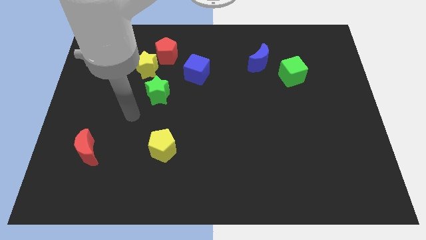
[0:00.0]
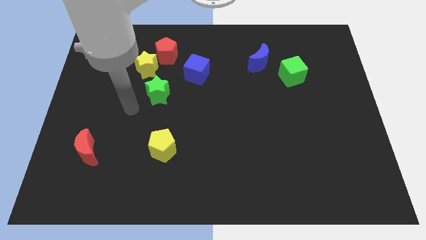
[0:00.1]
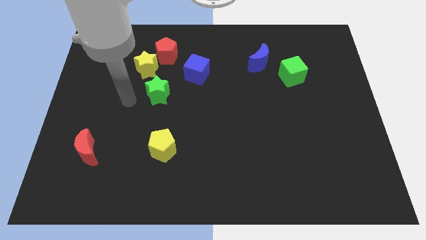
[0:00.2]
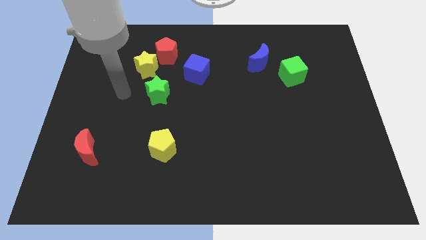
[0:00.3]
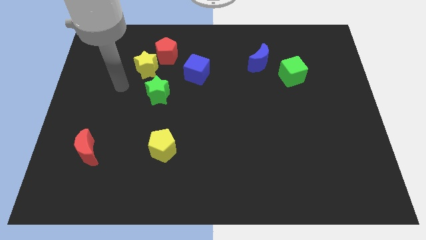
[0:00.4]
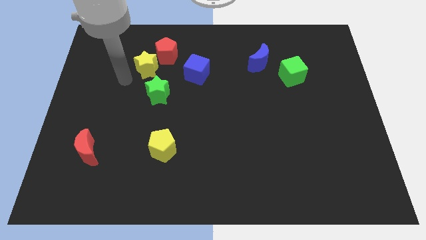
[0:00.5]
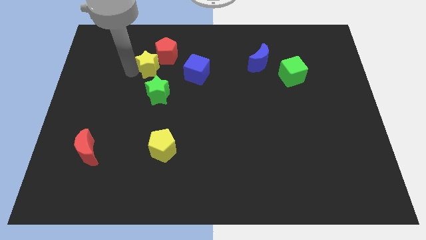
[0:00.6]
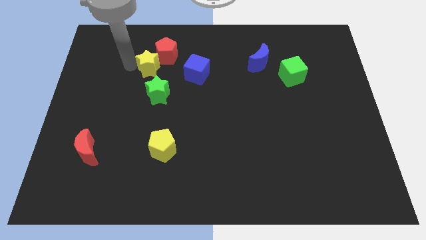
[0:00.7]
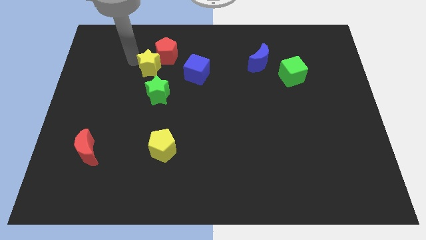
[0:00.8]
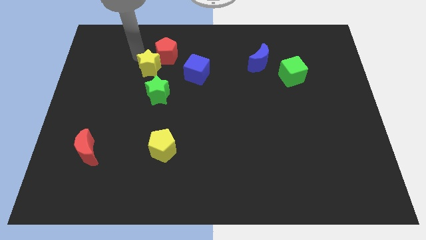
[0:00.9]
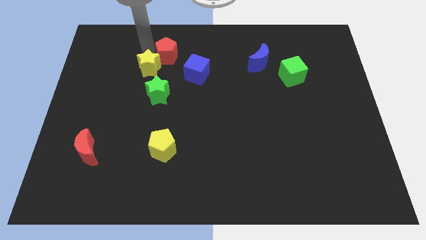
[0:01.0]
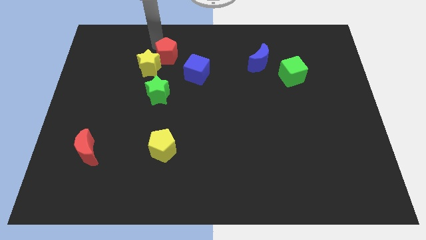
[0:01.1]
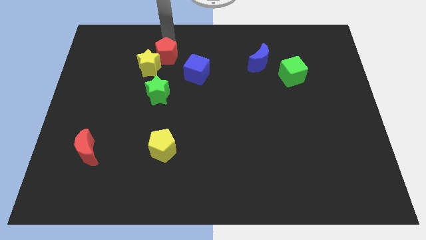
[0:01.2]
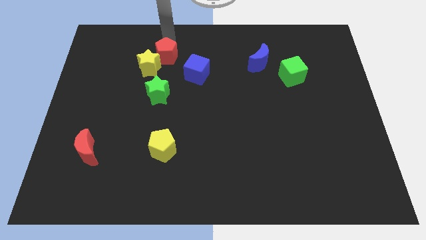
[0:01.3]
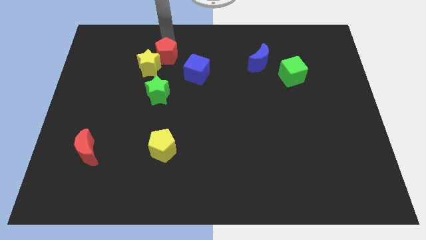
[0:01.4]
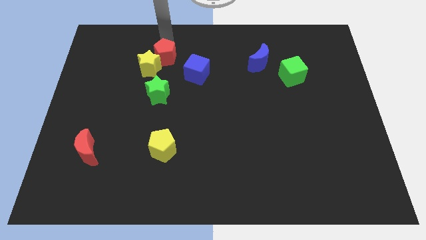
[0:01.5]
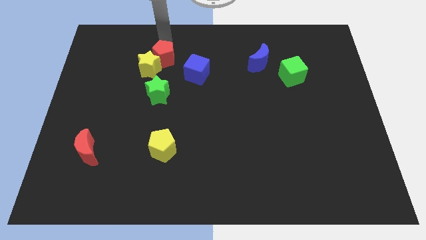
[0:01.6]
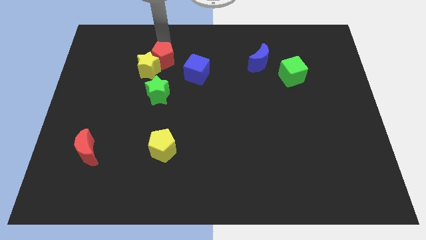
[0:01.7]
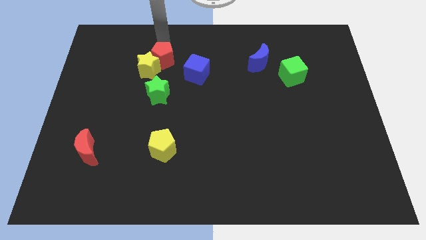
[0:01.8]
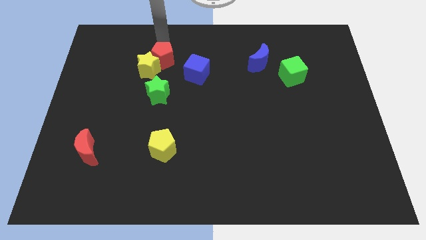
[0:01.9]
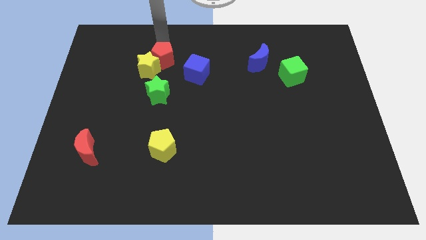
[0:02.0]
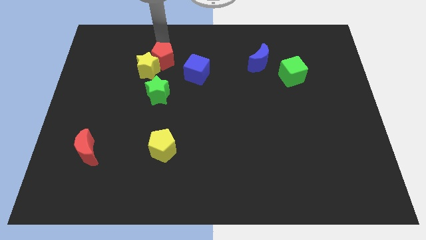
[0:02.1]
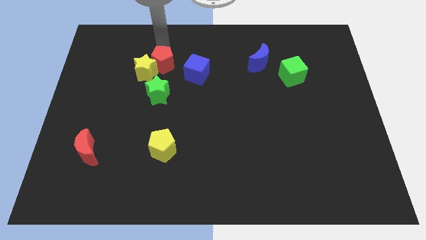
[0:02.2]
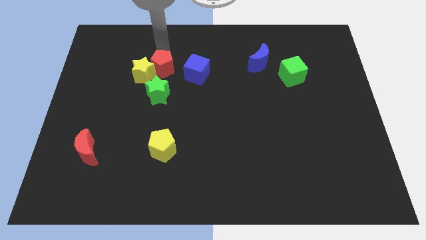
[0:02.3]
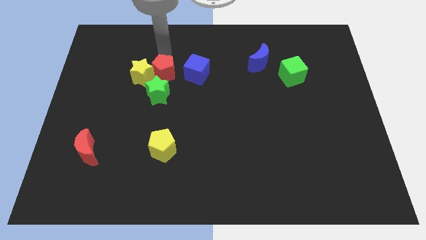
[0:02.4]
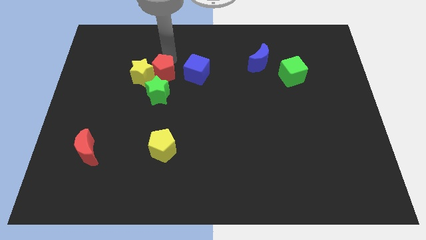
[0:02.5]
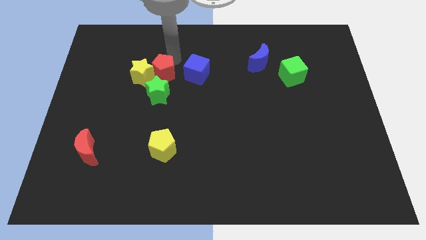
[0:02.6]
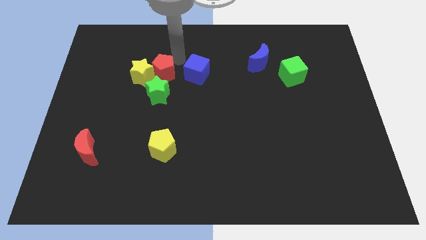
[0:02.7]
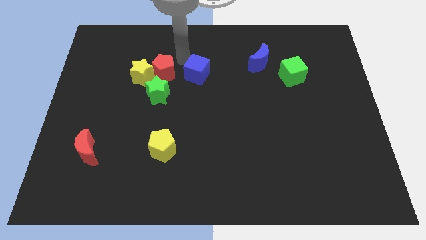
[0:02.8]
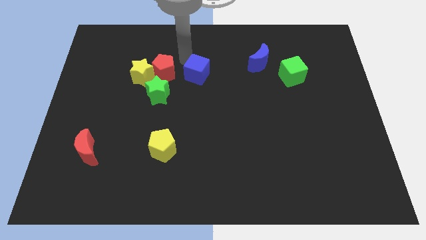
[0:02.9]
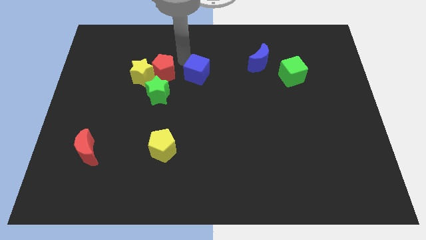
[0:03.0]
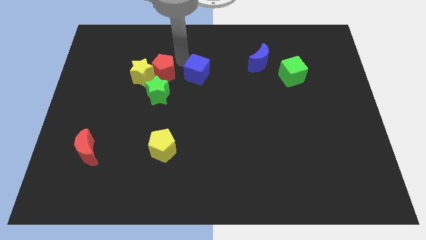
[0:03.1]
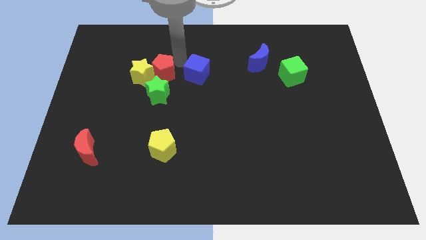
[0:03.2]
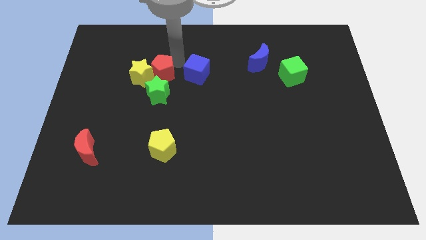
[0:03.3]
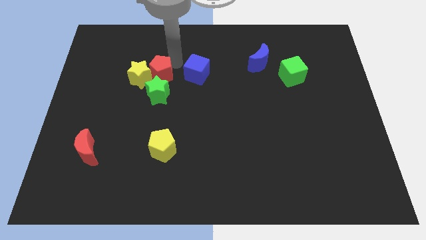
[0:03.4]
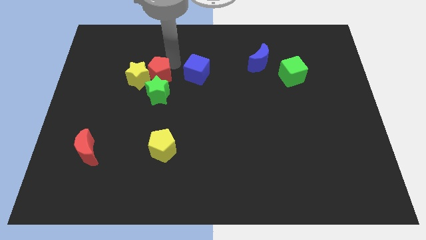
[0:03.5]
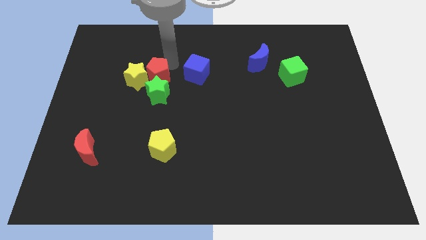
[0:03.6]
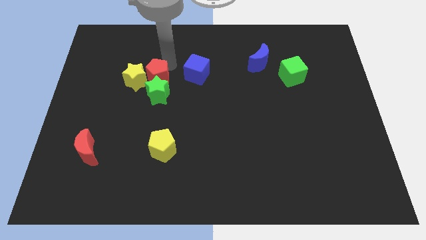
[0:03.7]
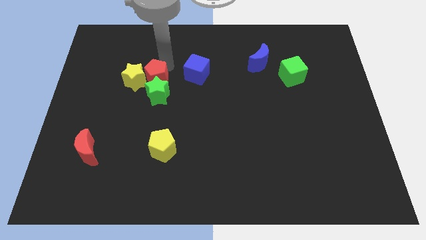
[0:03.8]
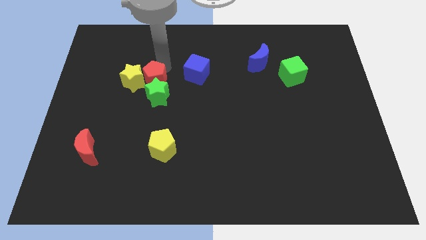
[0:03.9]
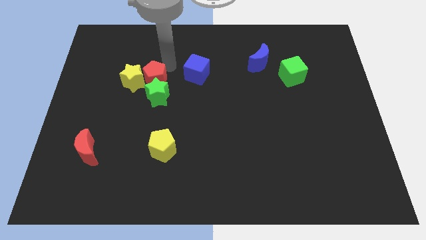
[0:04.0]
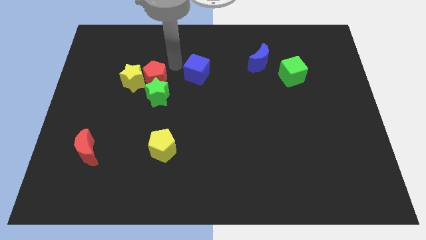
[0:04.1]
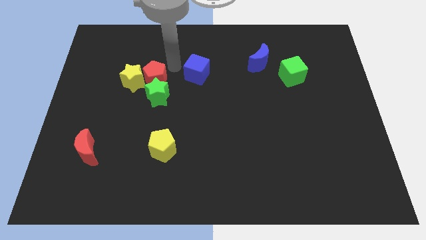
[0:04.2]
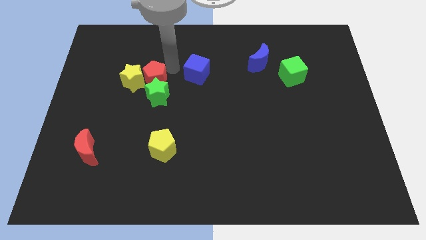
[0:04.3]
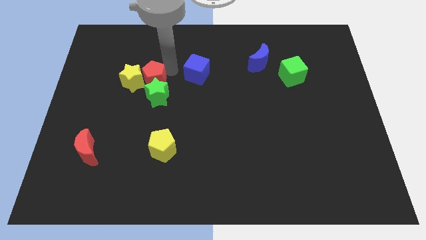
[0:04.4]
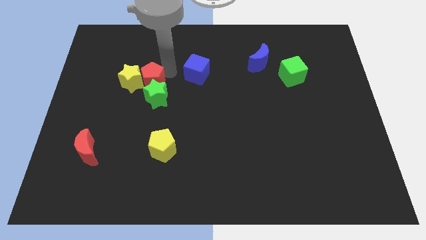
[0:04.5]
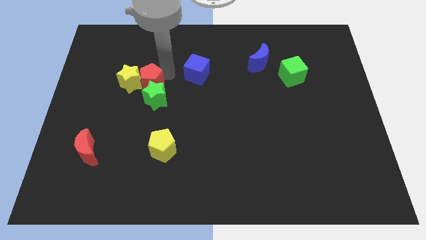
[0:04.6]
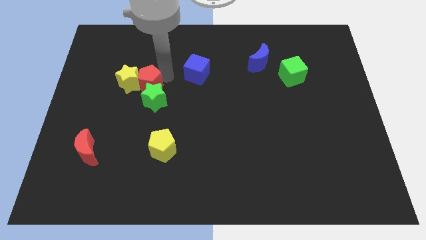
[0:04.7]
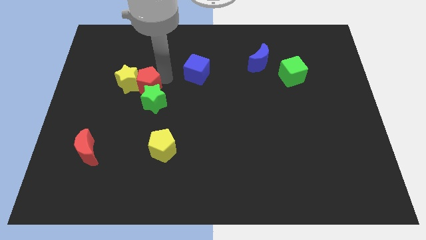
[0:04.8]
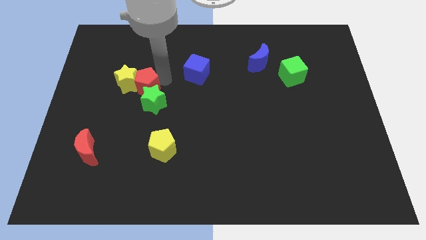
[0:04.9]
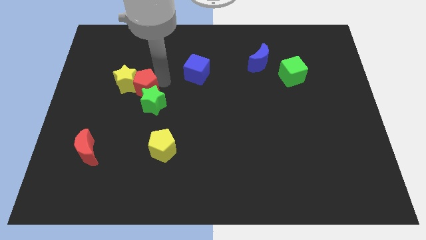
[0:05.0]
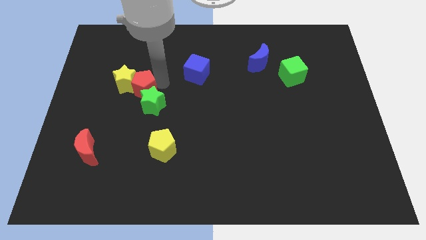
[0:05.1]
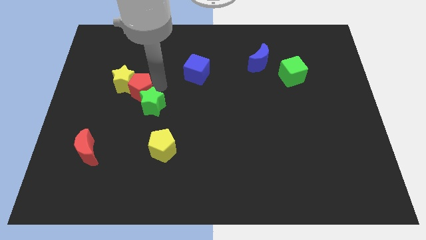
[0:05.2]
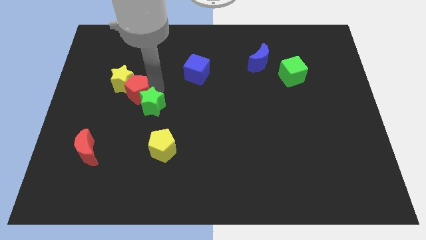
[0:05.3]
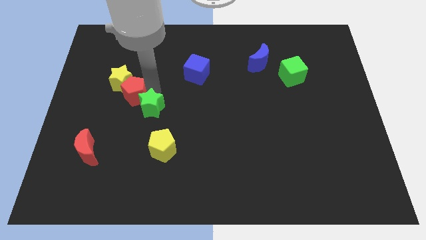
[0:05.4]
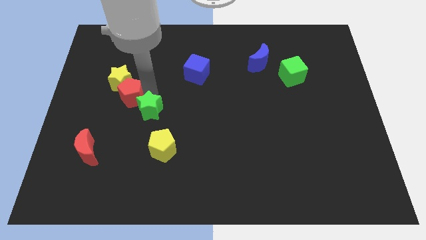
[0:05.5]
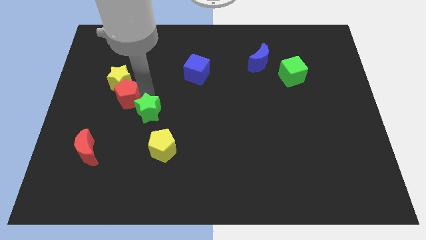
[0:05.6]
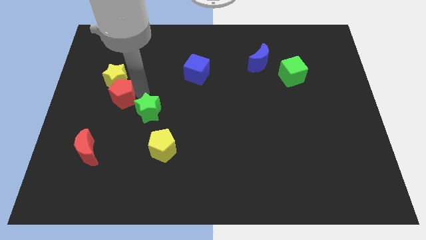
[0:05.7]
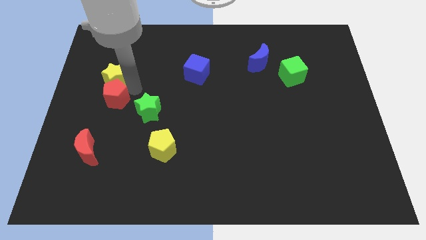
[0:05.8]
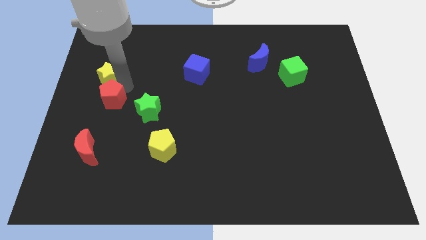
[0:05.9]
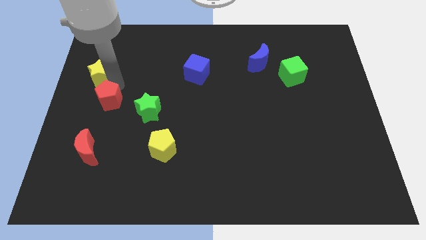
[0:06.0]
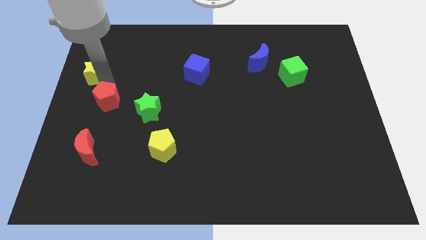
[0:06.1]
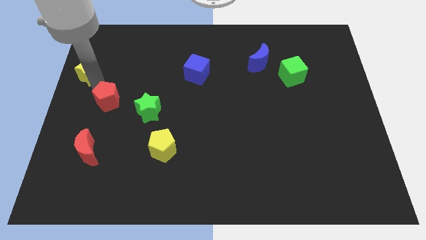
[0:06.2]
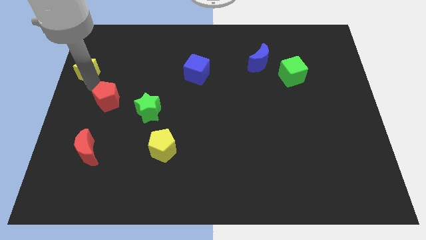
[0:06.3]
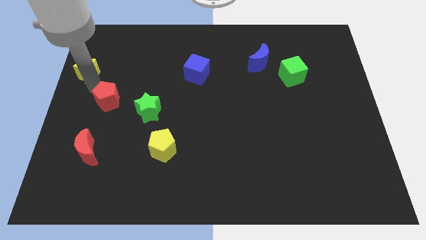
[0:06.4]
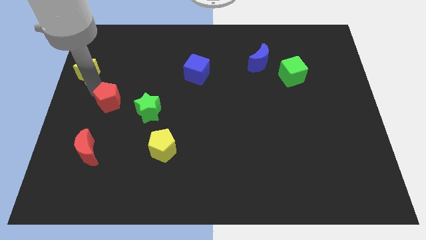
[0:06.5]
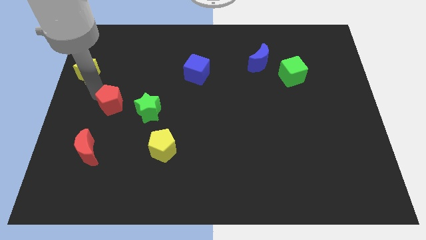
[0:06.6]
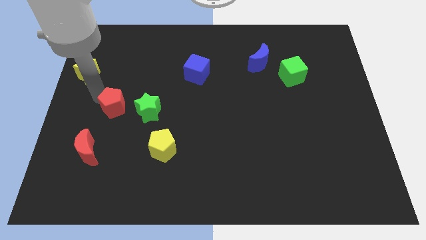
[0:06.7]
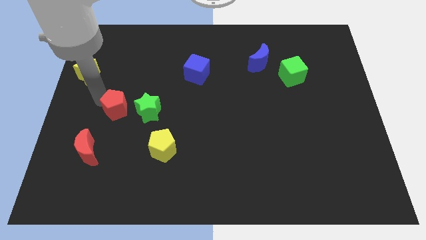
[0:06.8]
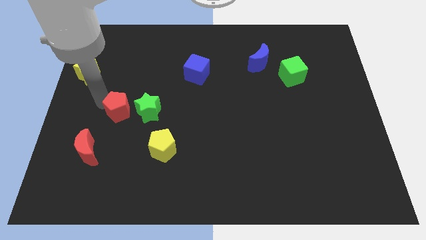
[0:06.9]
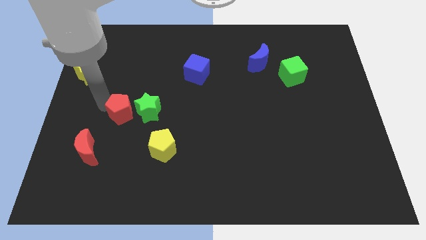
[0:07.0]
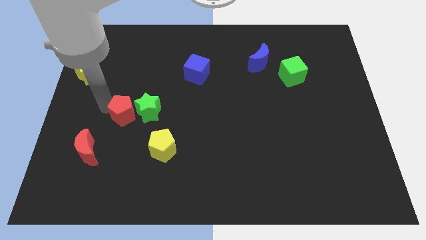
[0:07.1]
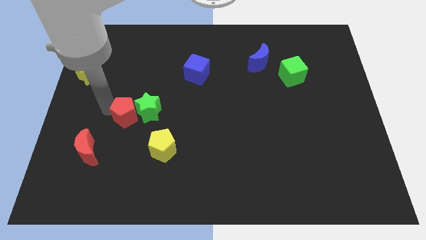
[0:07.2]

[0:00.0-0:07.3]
push the red pentagon to the top left side of the yellow pentagon

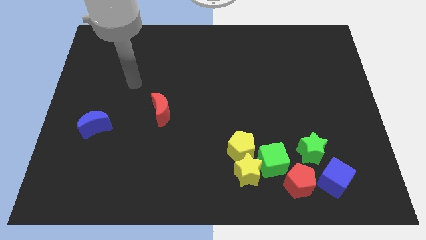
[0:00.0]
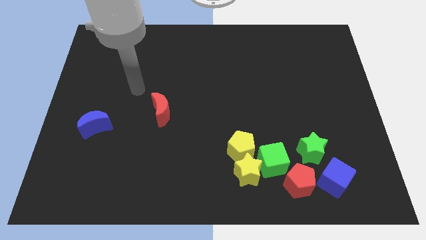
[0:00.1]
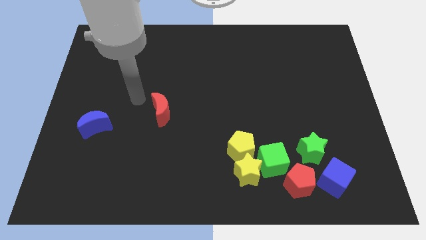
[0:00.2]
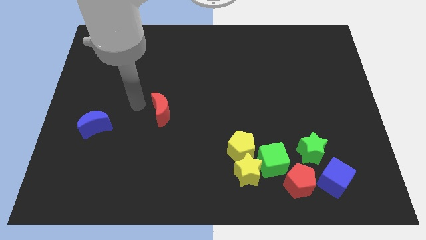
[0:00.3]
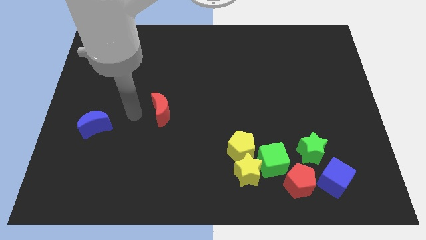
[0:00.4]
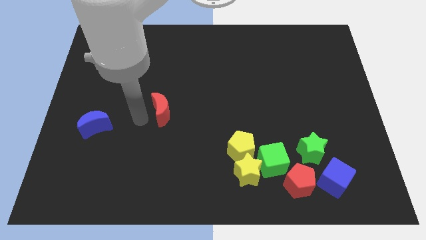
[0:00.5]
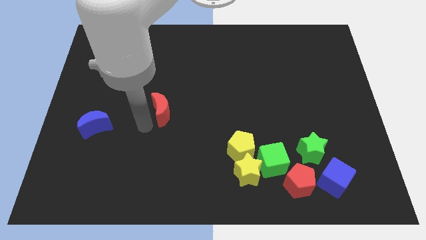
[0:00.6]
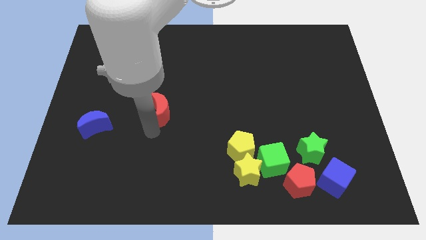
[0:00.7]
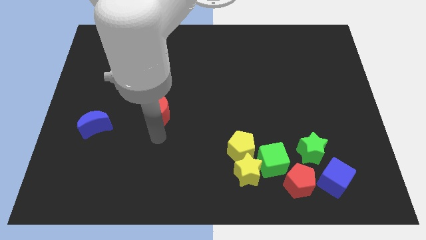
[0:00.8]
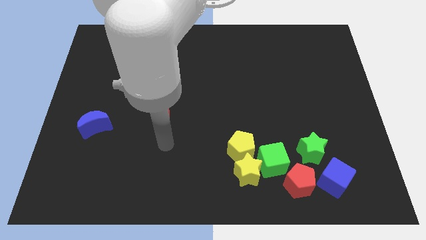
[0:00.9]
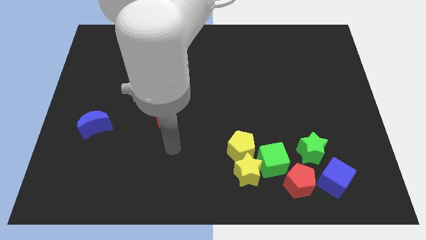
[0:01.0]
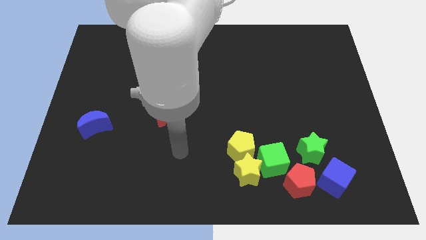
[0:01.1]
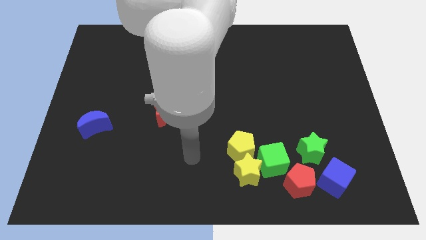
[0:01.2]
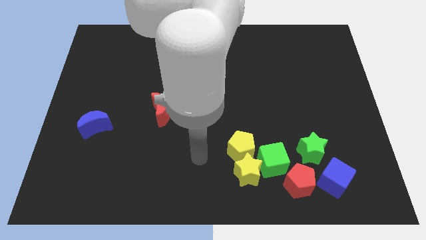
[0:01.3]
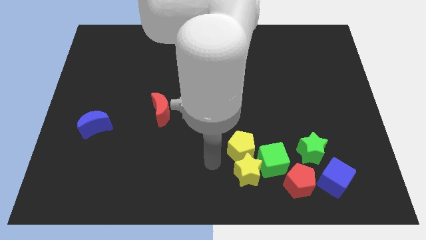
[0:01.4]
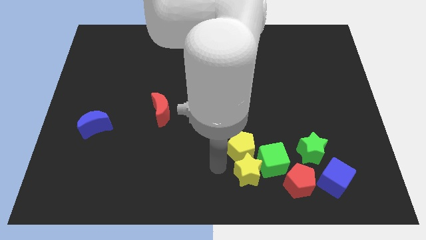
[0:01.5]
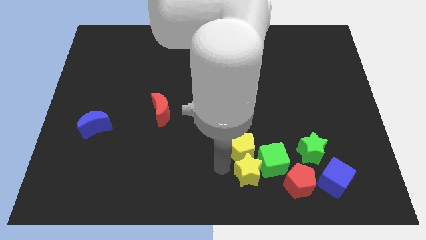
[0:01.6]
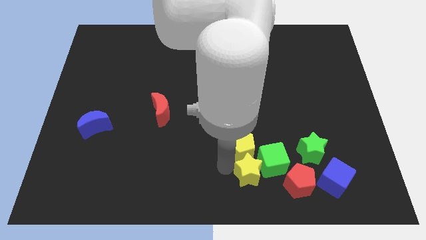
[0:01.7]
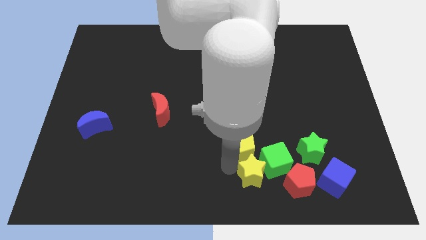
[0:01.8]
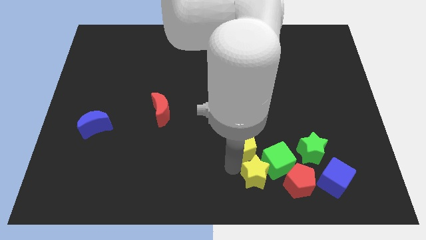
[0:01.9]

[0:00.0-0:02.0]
move the yellow star to the left of the blue cube
